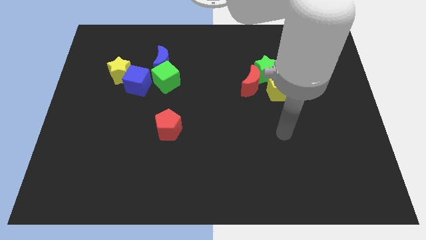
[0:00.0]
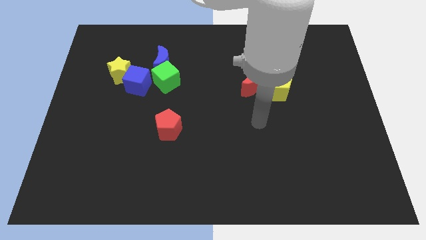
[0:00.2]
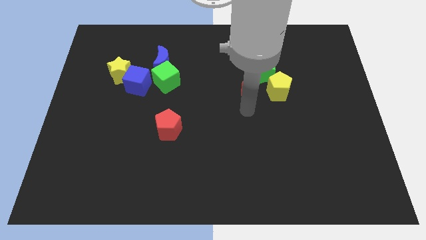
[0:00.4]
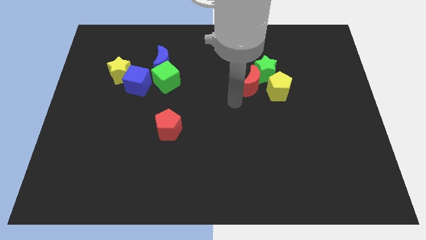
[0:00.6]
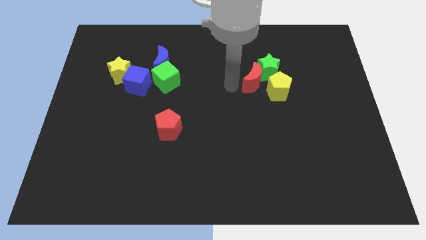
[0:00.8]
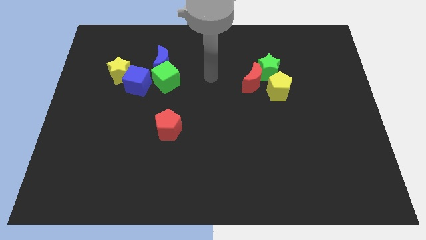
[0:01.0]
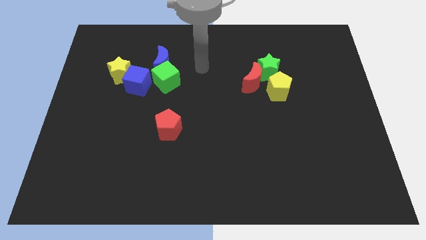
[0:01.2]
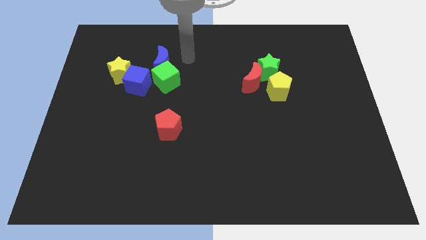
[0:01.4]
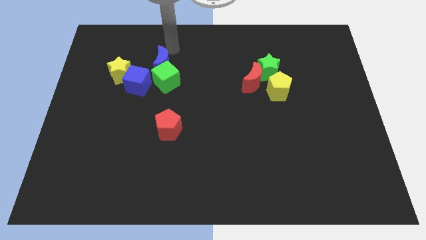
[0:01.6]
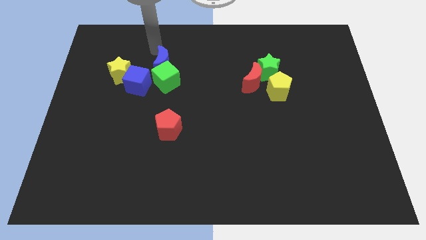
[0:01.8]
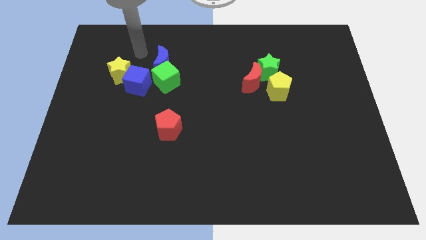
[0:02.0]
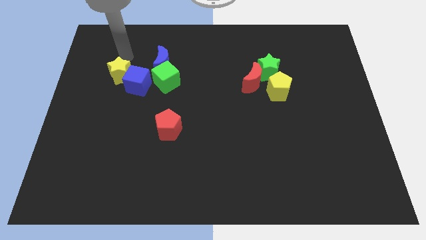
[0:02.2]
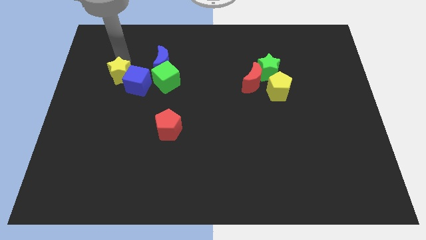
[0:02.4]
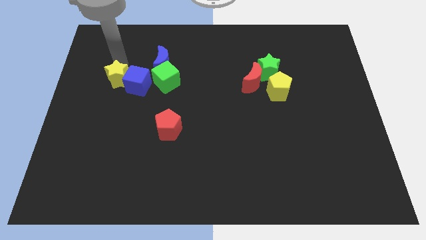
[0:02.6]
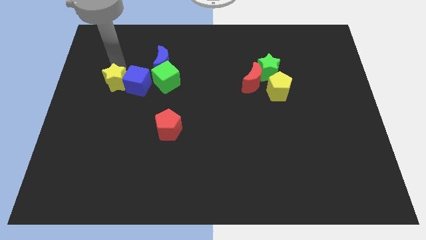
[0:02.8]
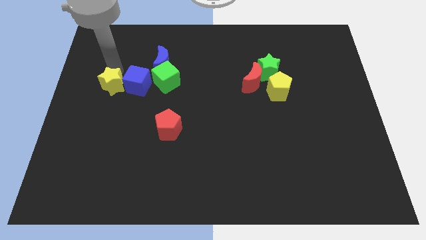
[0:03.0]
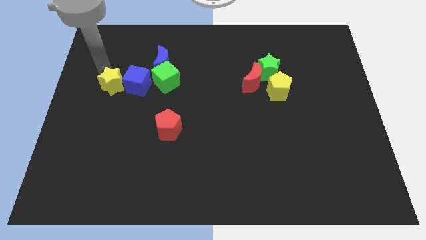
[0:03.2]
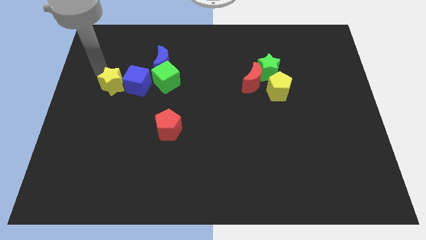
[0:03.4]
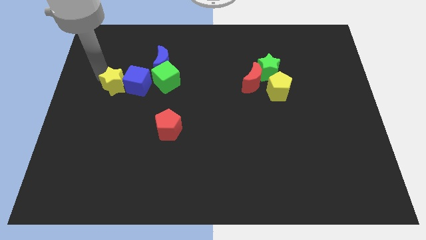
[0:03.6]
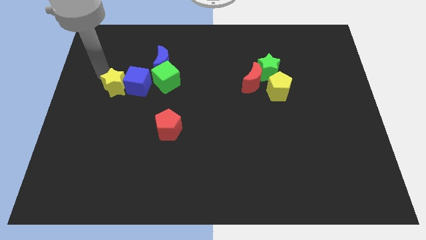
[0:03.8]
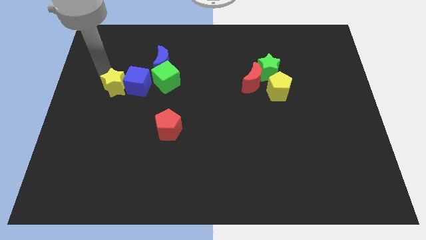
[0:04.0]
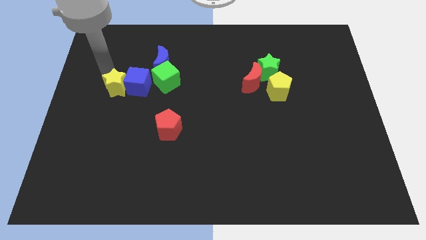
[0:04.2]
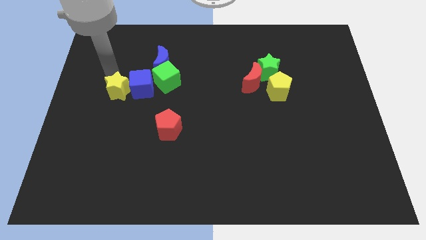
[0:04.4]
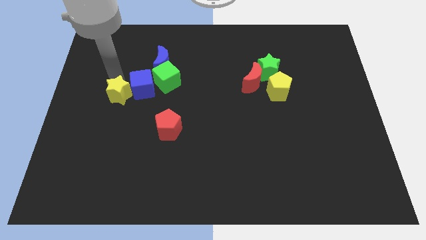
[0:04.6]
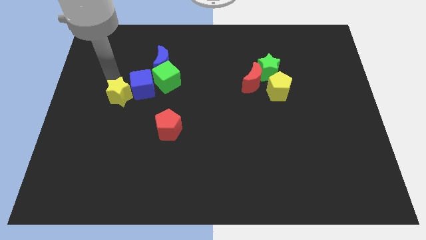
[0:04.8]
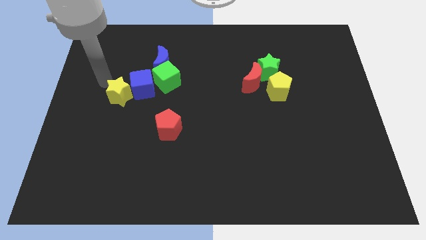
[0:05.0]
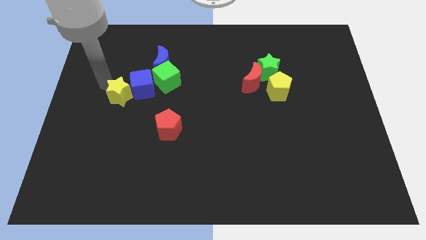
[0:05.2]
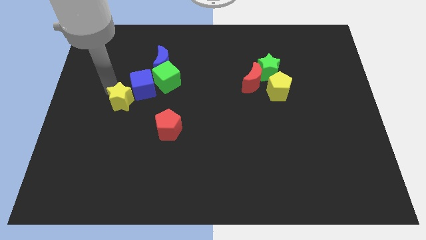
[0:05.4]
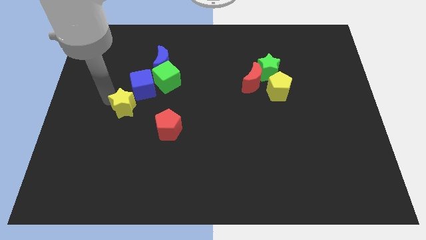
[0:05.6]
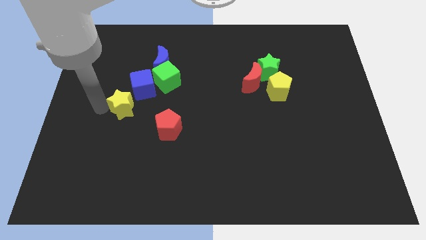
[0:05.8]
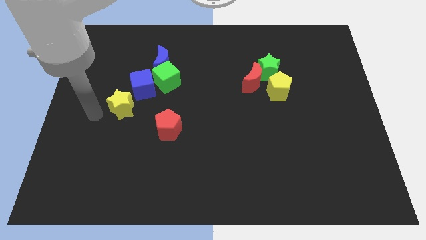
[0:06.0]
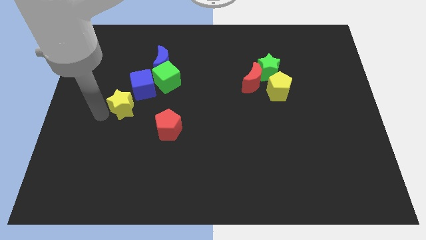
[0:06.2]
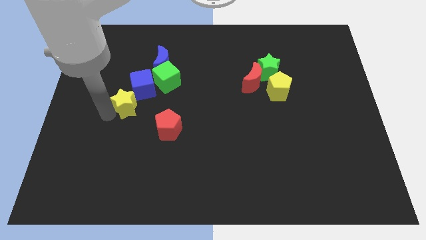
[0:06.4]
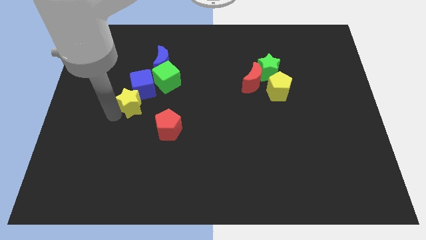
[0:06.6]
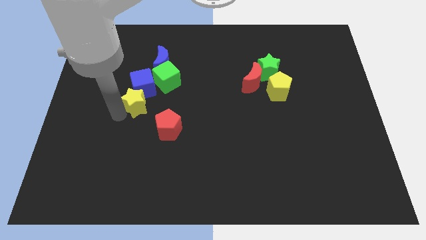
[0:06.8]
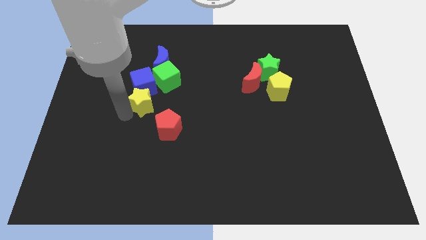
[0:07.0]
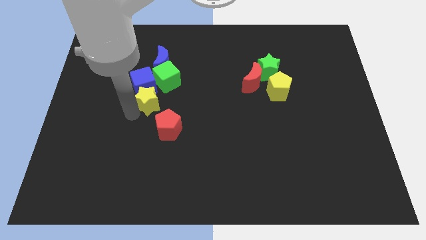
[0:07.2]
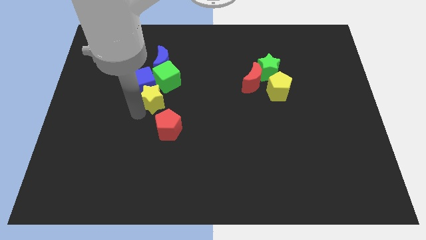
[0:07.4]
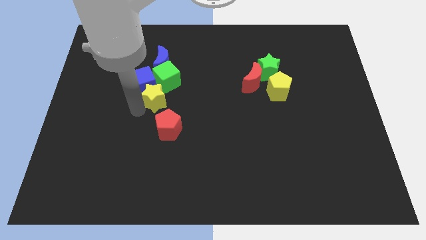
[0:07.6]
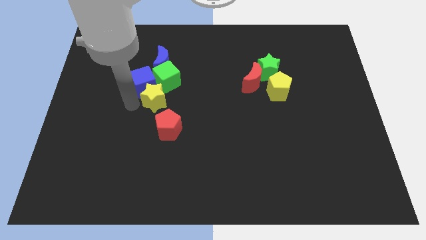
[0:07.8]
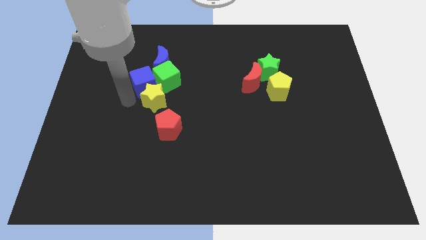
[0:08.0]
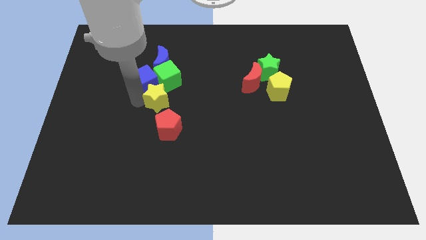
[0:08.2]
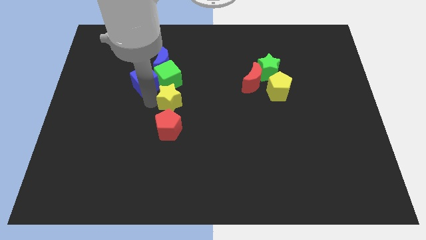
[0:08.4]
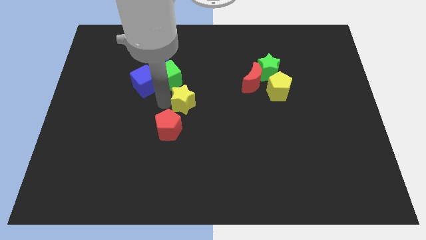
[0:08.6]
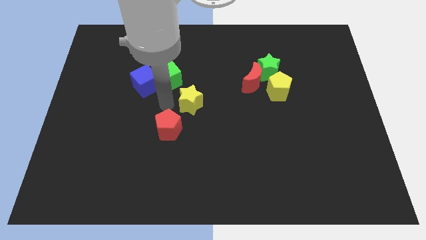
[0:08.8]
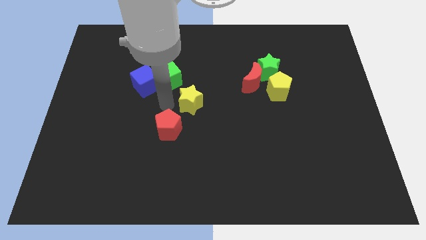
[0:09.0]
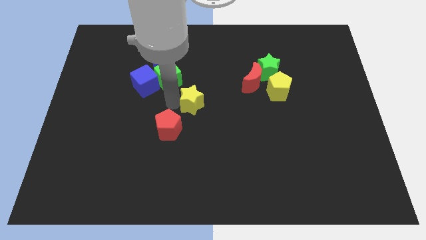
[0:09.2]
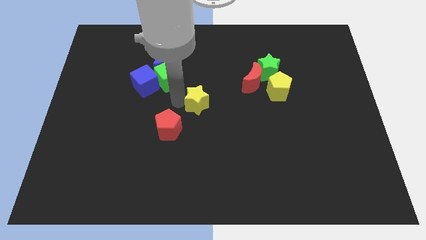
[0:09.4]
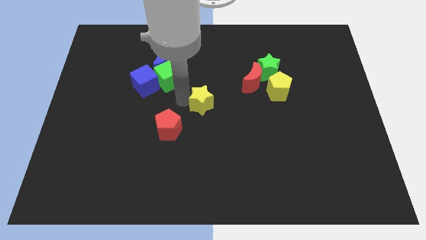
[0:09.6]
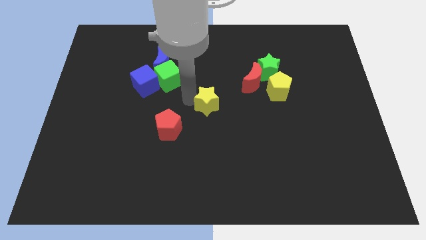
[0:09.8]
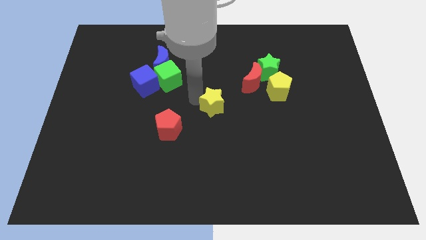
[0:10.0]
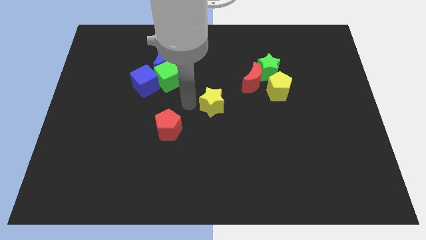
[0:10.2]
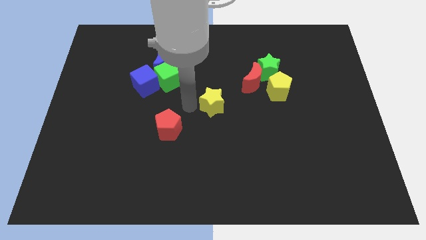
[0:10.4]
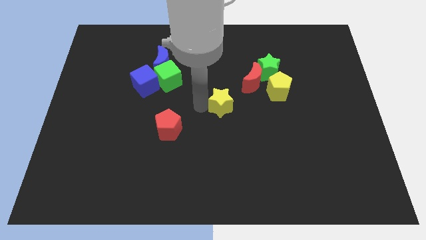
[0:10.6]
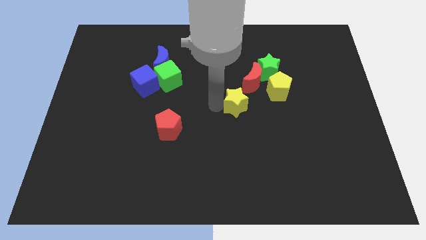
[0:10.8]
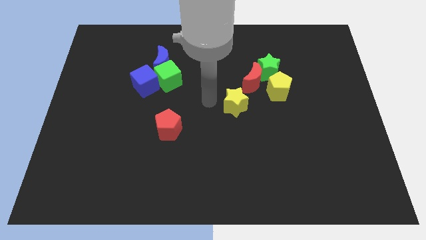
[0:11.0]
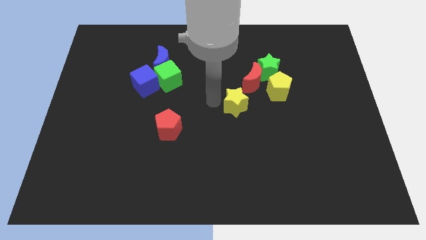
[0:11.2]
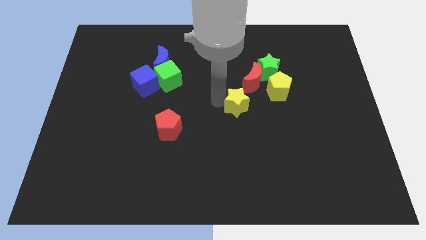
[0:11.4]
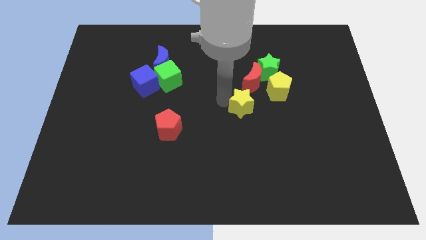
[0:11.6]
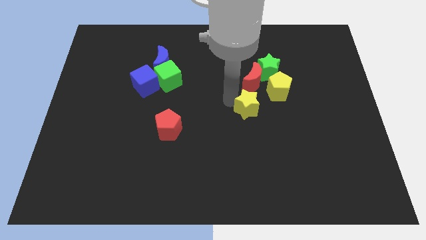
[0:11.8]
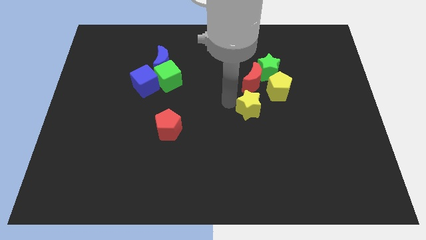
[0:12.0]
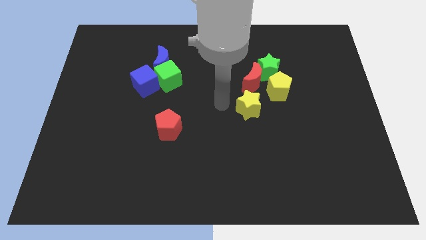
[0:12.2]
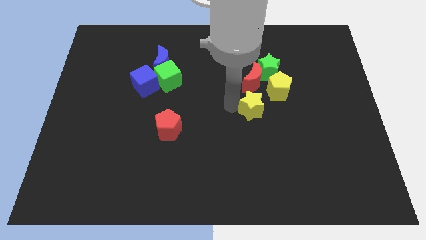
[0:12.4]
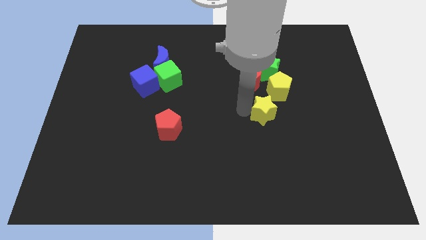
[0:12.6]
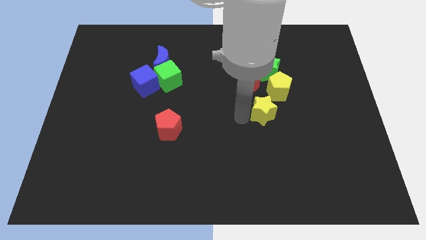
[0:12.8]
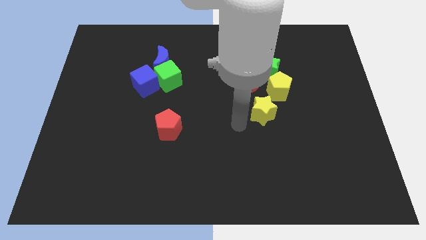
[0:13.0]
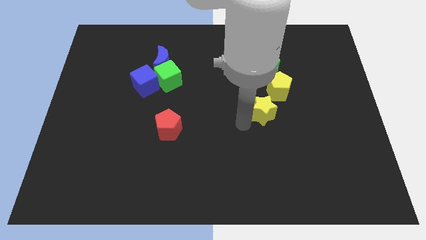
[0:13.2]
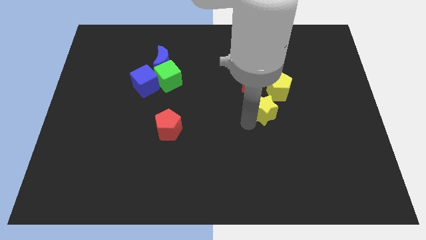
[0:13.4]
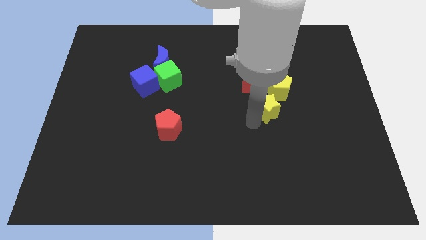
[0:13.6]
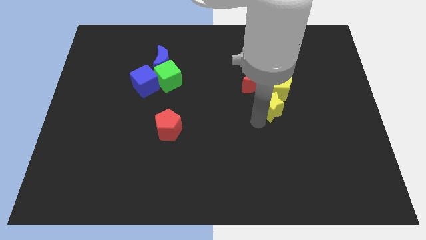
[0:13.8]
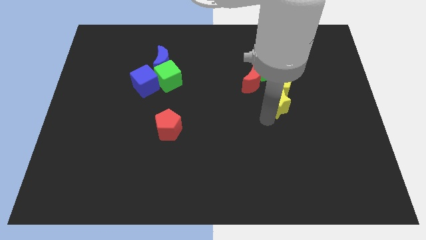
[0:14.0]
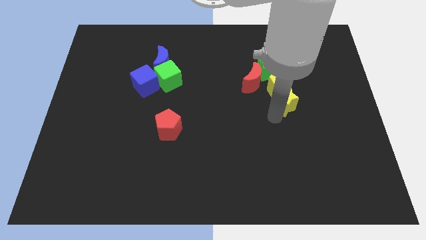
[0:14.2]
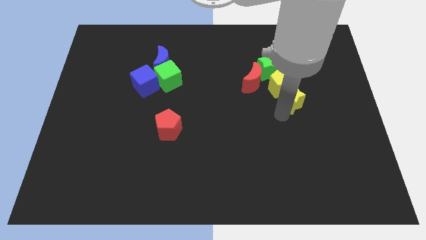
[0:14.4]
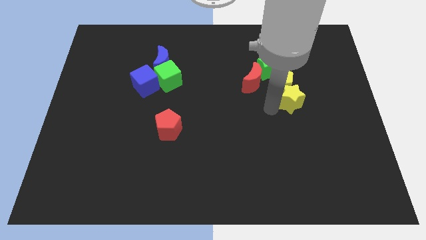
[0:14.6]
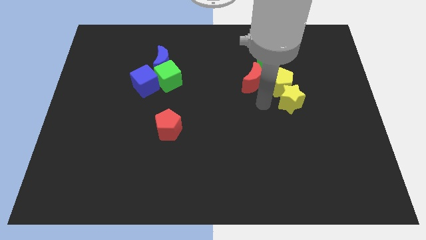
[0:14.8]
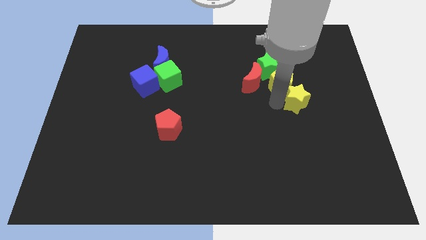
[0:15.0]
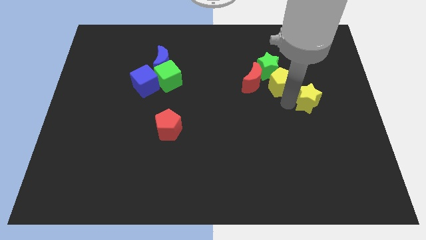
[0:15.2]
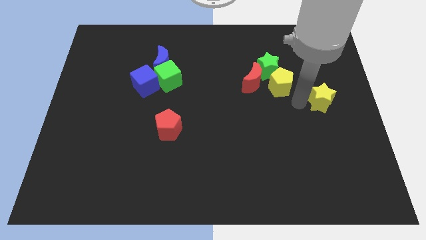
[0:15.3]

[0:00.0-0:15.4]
move the yellow star to the right side of the board
